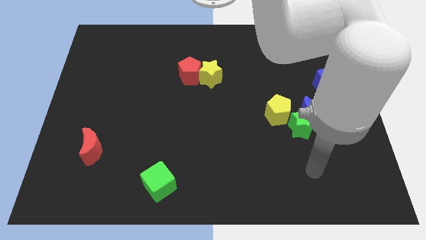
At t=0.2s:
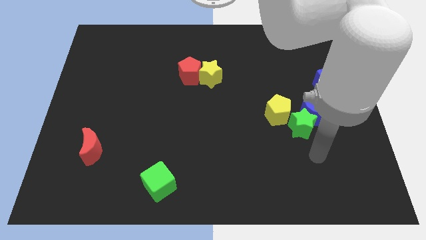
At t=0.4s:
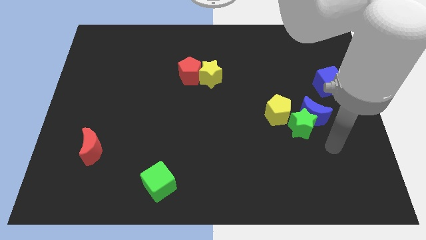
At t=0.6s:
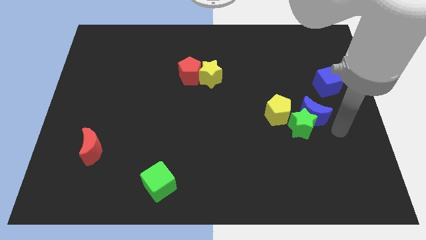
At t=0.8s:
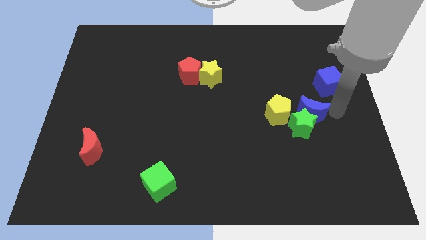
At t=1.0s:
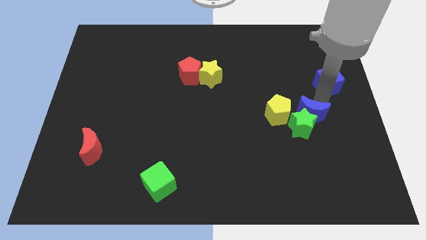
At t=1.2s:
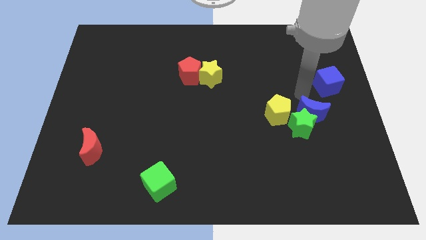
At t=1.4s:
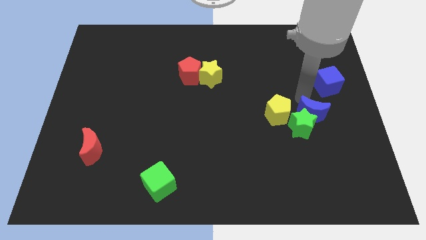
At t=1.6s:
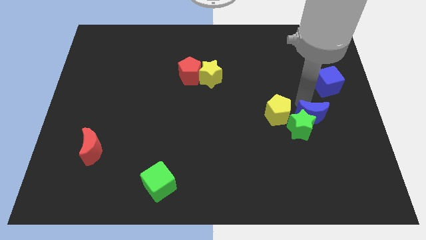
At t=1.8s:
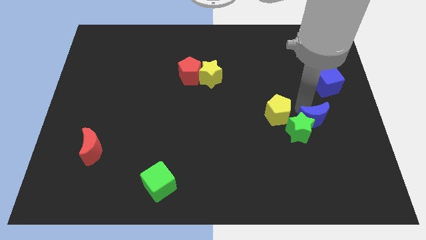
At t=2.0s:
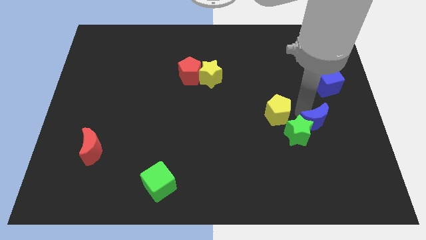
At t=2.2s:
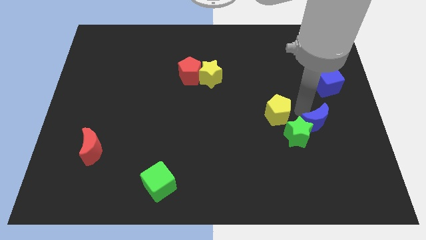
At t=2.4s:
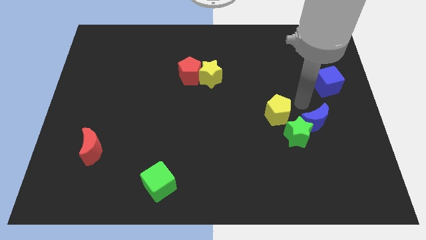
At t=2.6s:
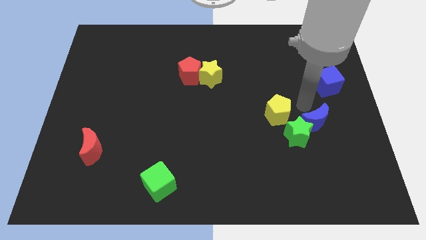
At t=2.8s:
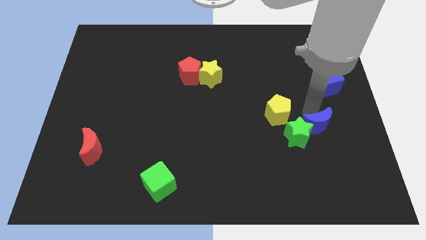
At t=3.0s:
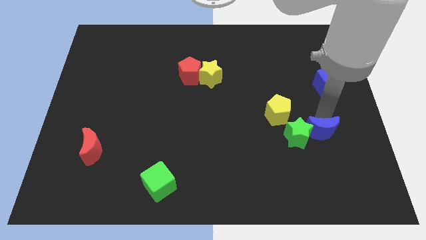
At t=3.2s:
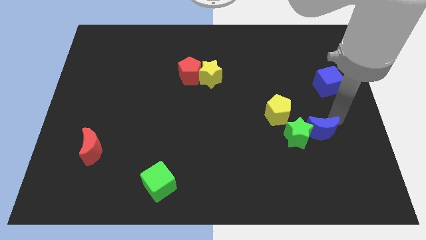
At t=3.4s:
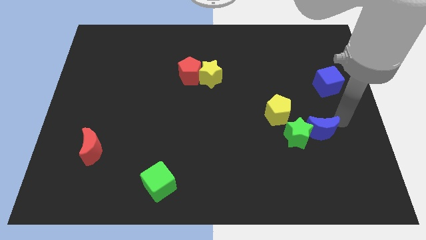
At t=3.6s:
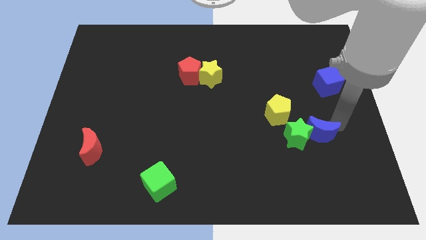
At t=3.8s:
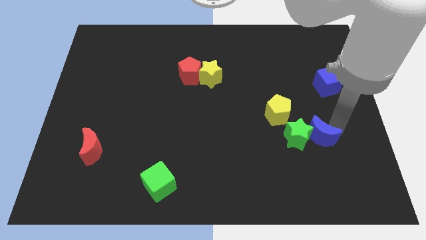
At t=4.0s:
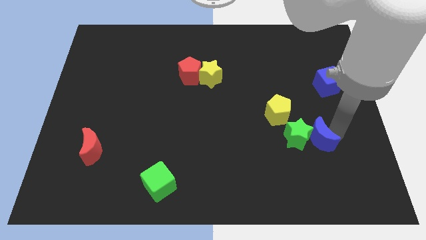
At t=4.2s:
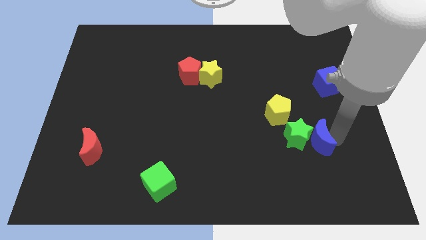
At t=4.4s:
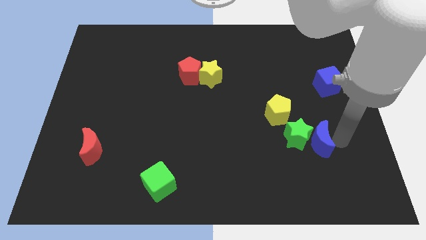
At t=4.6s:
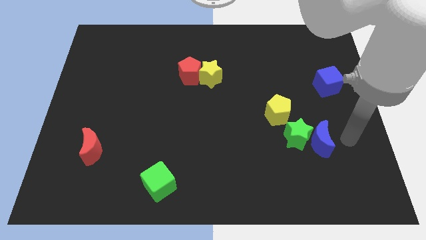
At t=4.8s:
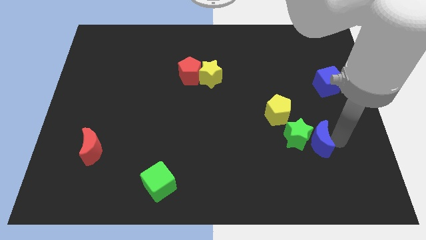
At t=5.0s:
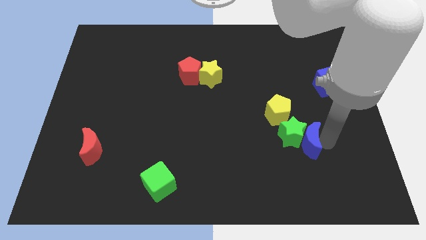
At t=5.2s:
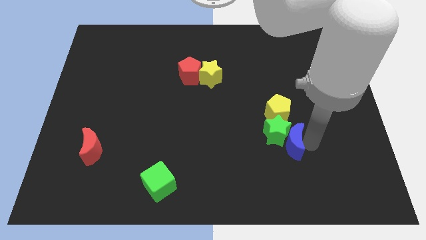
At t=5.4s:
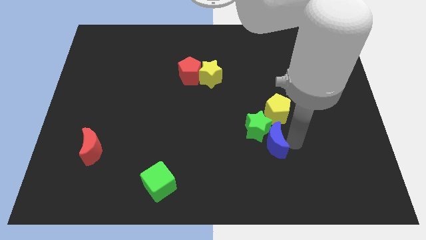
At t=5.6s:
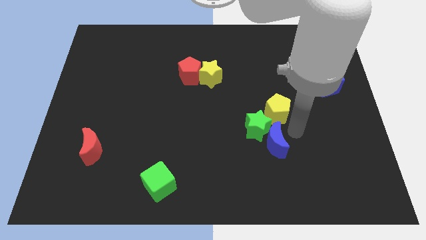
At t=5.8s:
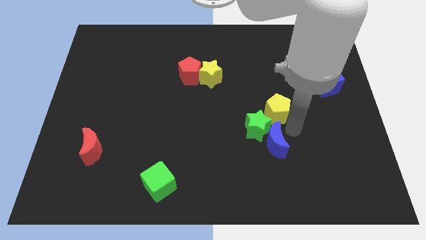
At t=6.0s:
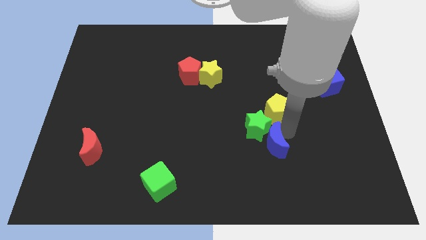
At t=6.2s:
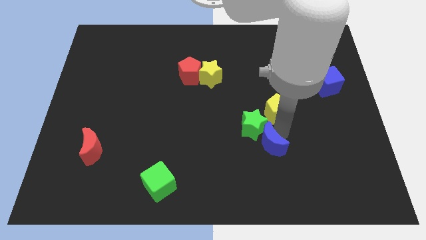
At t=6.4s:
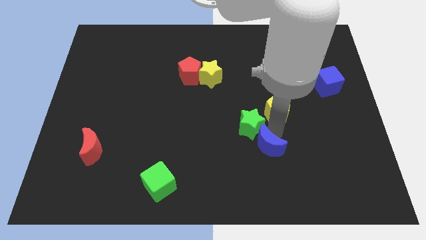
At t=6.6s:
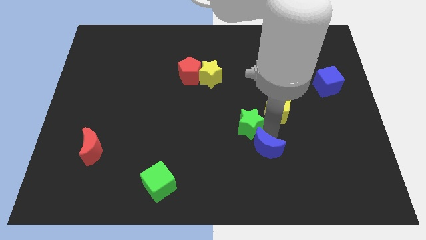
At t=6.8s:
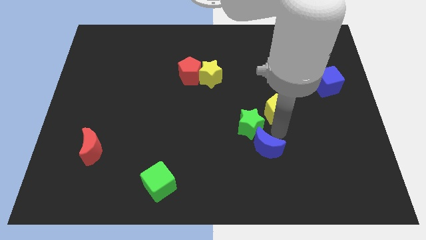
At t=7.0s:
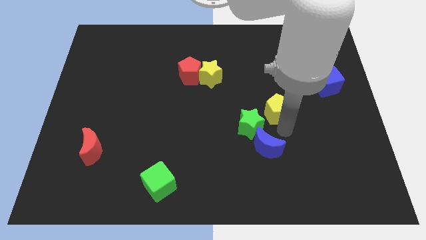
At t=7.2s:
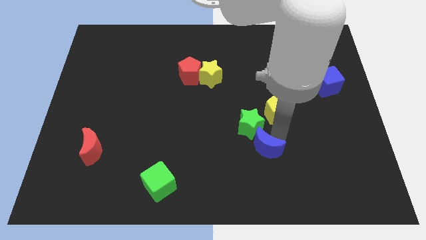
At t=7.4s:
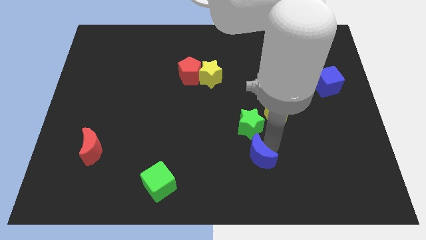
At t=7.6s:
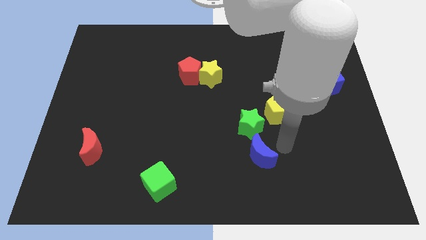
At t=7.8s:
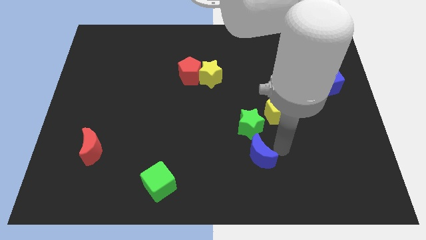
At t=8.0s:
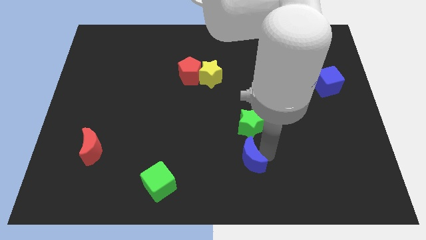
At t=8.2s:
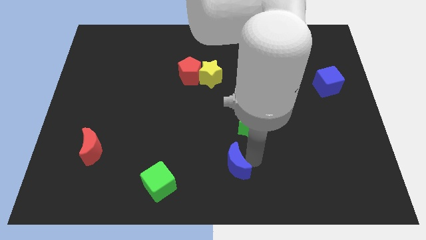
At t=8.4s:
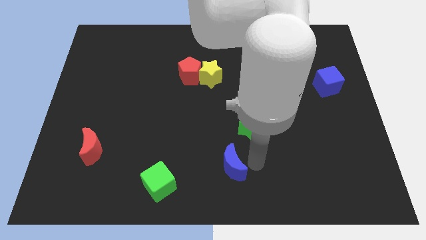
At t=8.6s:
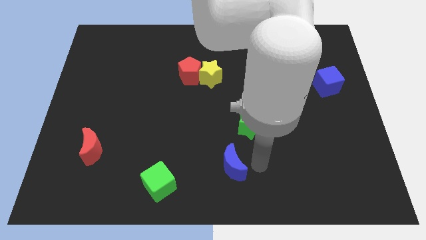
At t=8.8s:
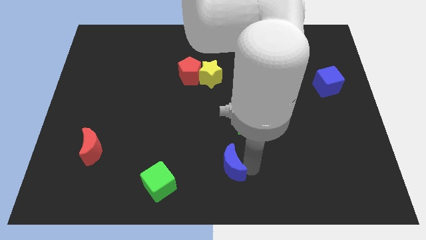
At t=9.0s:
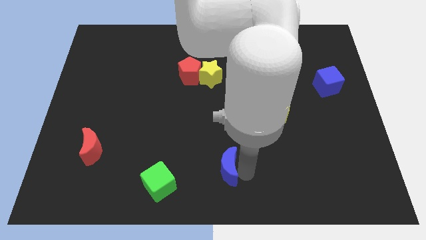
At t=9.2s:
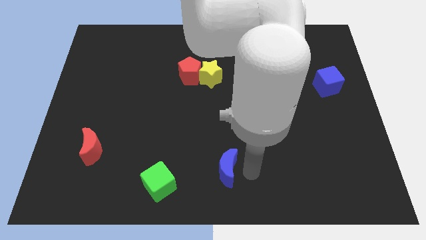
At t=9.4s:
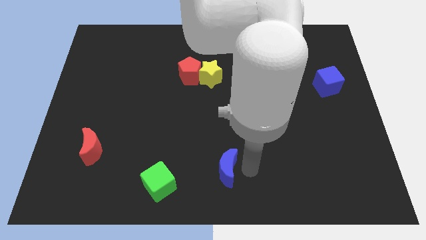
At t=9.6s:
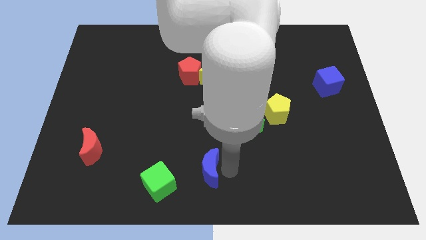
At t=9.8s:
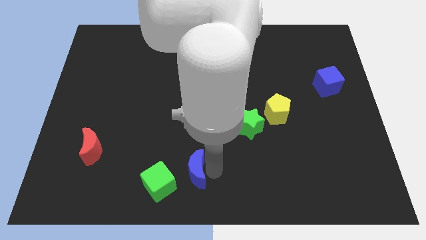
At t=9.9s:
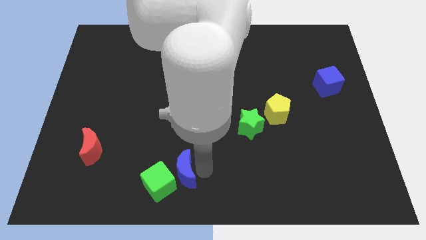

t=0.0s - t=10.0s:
push the blue moon towards the green cube
